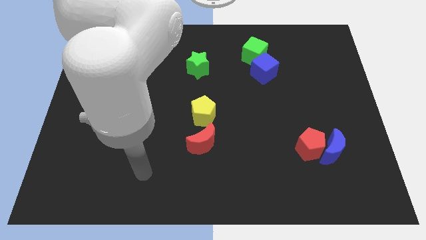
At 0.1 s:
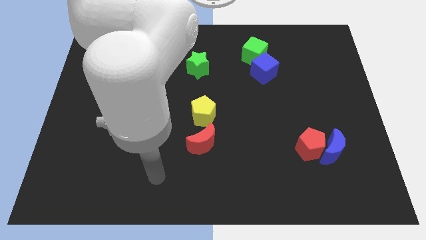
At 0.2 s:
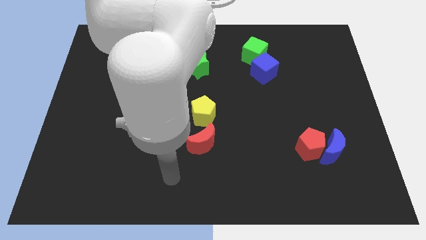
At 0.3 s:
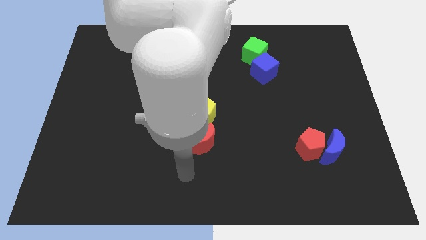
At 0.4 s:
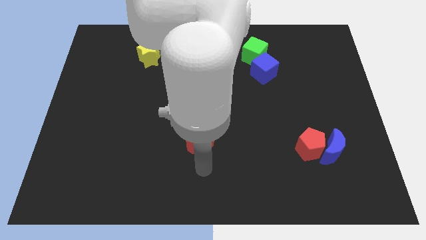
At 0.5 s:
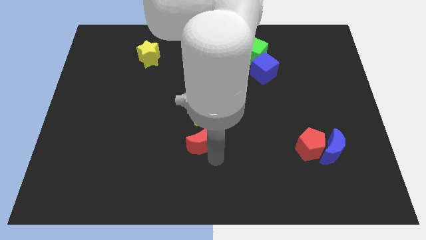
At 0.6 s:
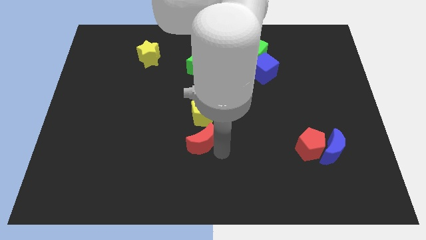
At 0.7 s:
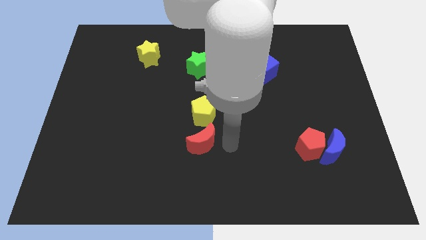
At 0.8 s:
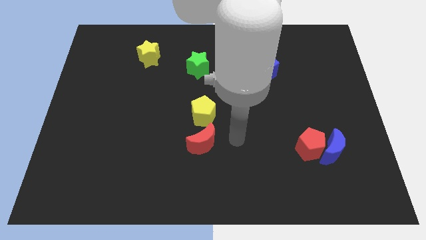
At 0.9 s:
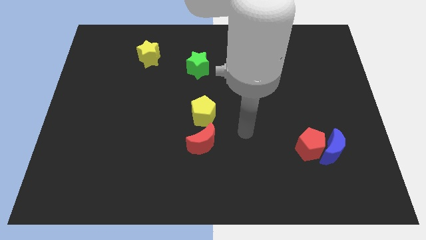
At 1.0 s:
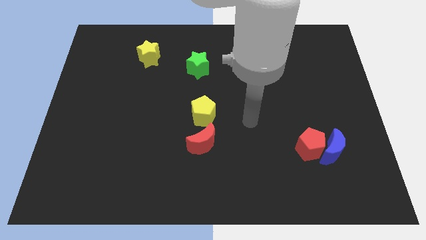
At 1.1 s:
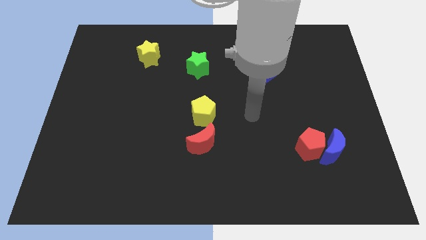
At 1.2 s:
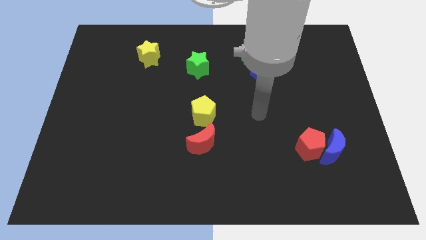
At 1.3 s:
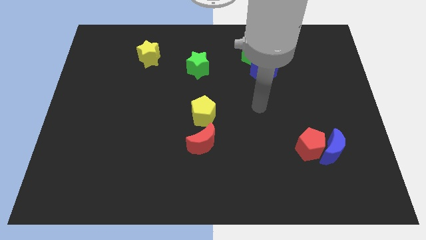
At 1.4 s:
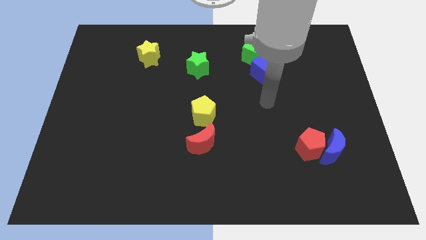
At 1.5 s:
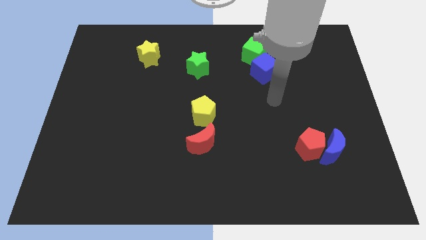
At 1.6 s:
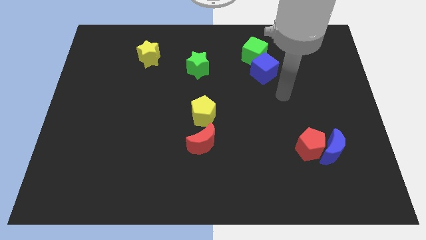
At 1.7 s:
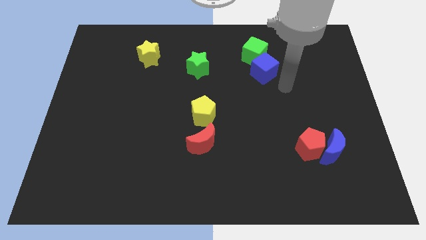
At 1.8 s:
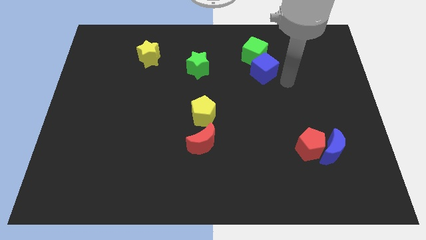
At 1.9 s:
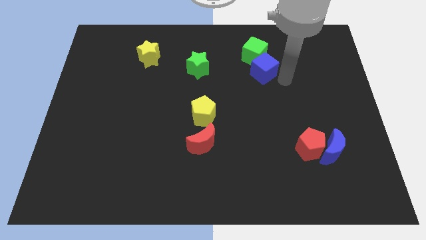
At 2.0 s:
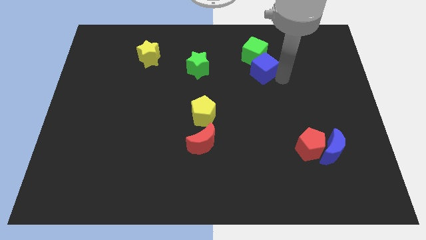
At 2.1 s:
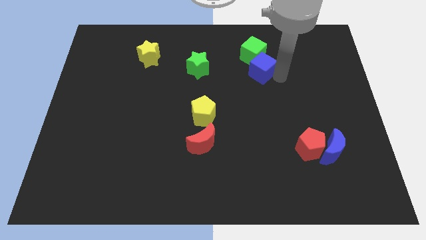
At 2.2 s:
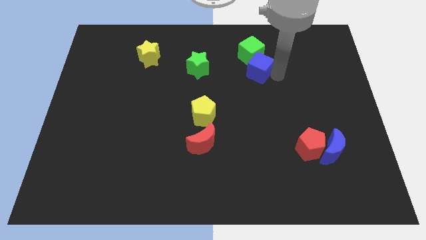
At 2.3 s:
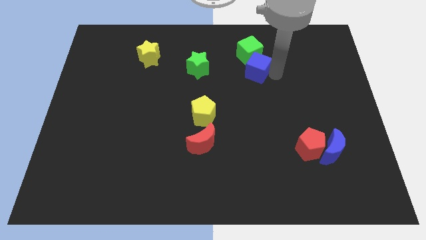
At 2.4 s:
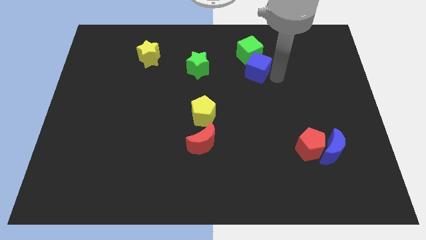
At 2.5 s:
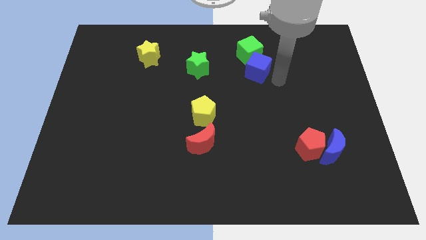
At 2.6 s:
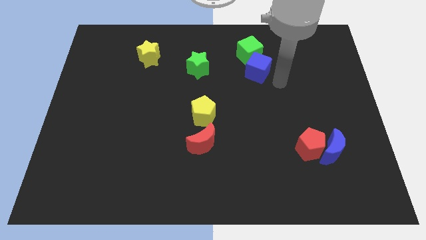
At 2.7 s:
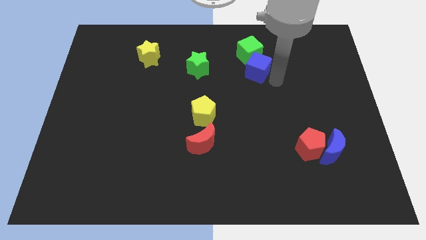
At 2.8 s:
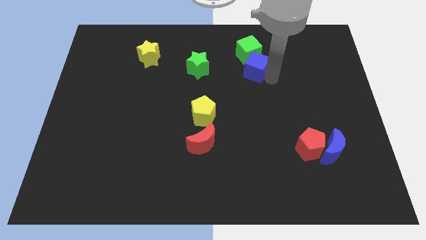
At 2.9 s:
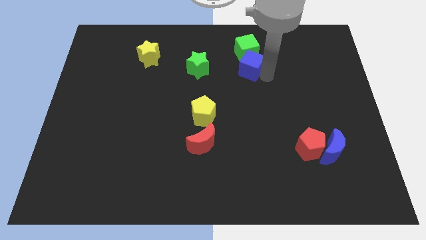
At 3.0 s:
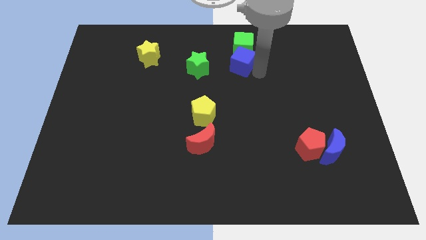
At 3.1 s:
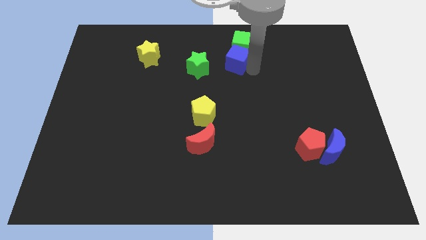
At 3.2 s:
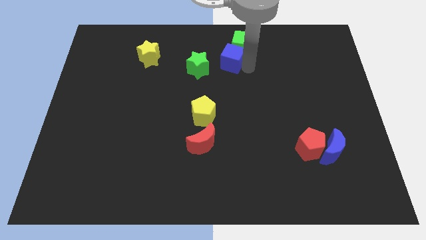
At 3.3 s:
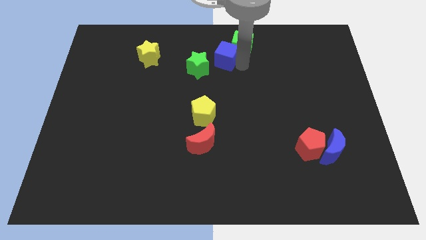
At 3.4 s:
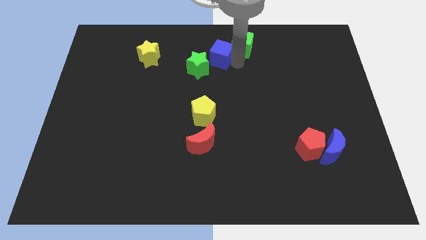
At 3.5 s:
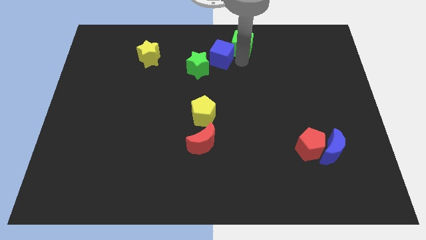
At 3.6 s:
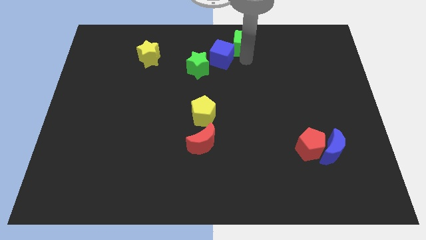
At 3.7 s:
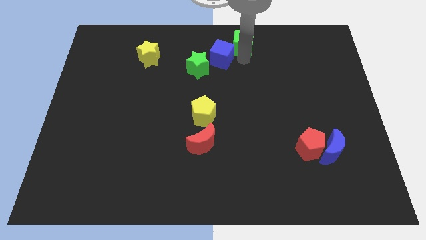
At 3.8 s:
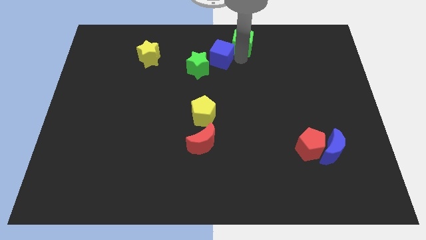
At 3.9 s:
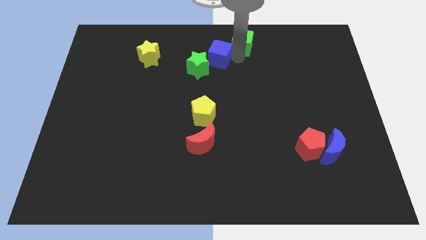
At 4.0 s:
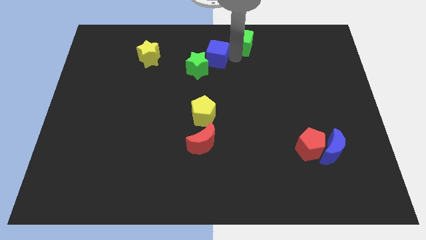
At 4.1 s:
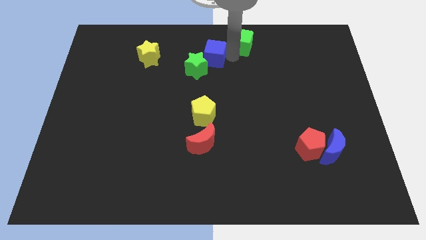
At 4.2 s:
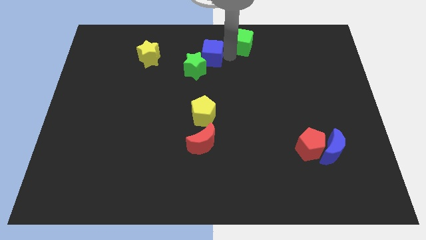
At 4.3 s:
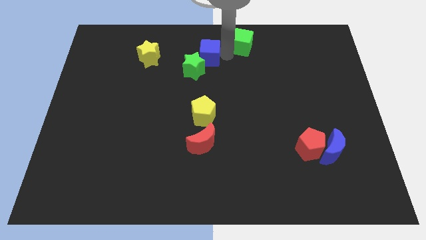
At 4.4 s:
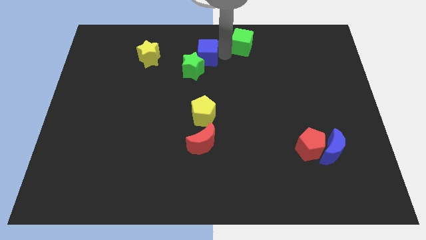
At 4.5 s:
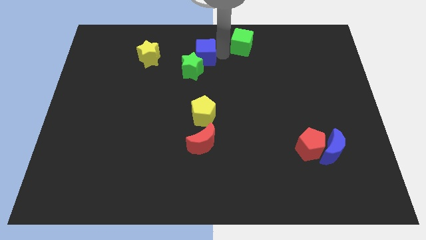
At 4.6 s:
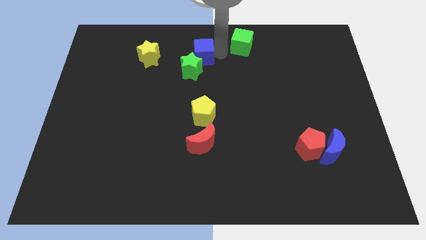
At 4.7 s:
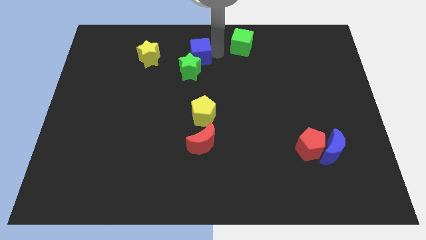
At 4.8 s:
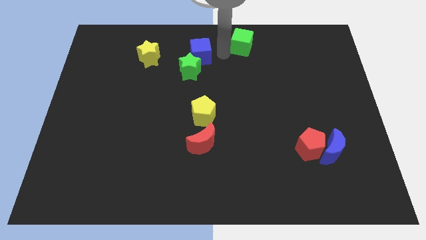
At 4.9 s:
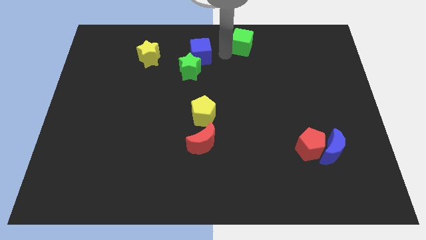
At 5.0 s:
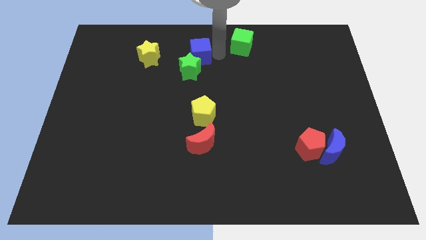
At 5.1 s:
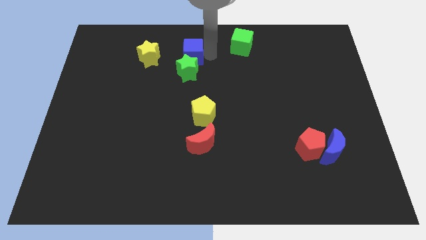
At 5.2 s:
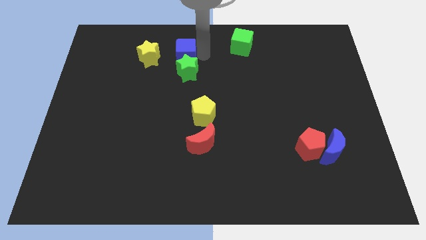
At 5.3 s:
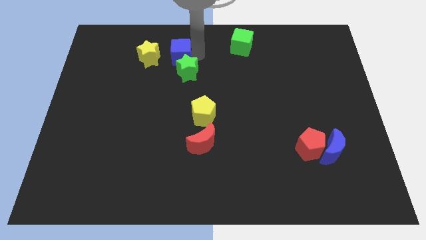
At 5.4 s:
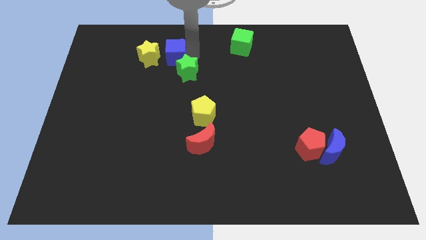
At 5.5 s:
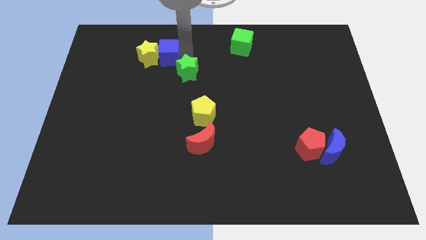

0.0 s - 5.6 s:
push the blue cube next to the yellow star

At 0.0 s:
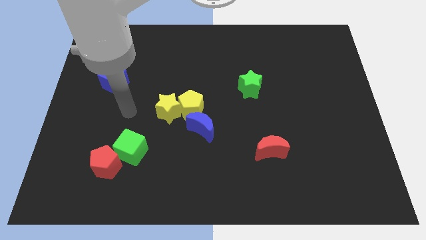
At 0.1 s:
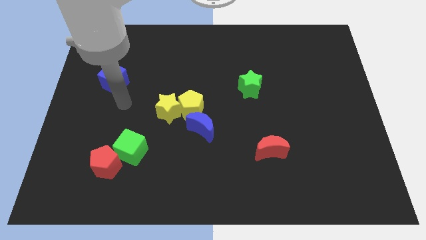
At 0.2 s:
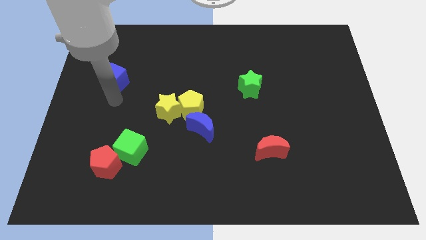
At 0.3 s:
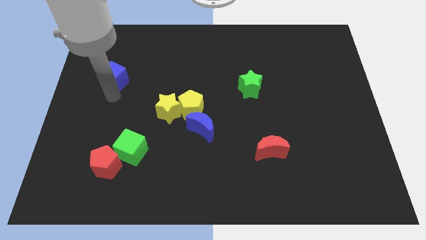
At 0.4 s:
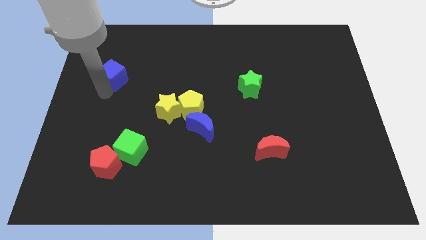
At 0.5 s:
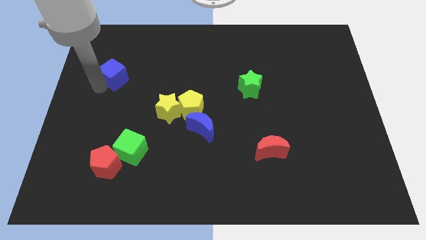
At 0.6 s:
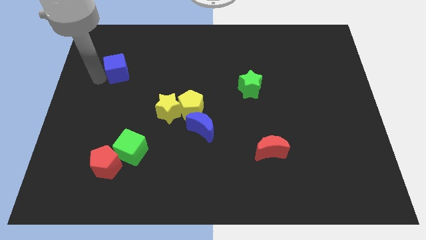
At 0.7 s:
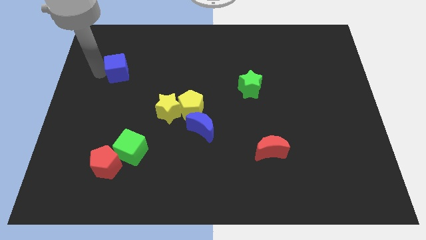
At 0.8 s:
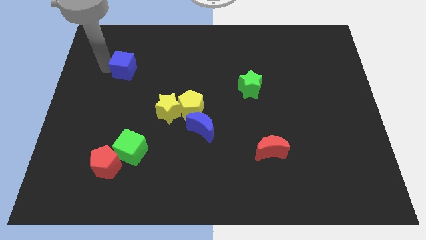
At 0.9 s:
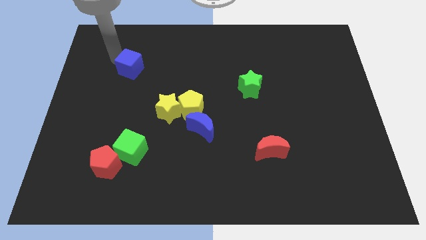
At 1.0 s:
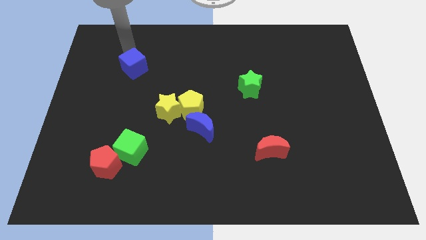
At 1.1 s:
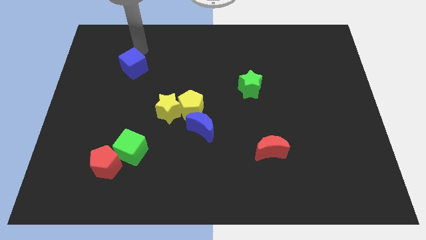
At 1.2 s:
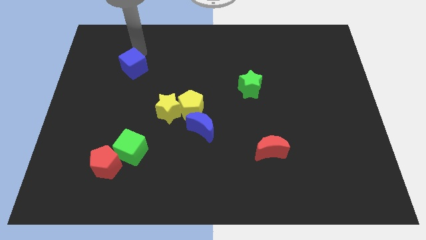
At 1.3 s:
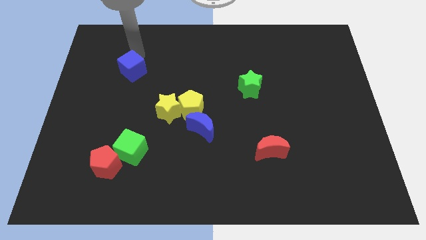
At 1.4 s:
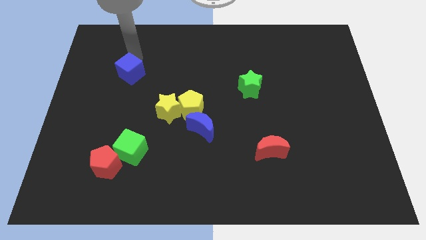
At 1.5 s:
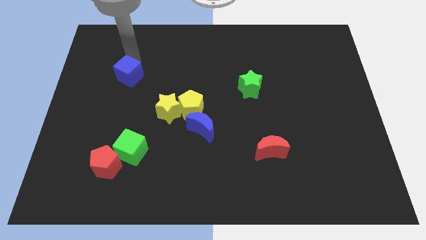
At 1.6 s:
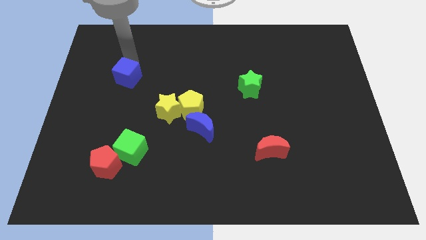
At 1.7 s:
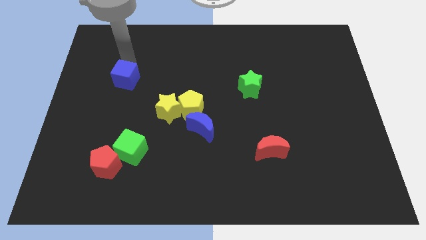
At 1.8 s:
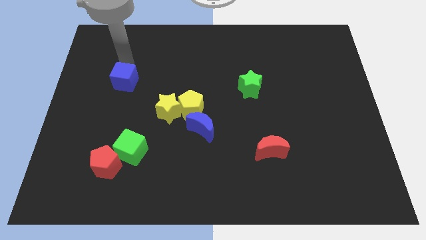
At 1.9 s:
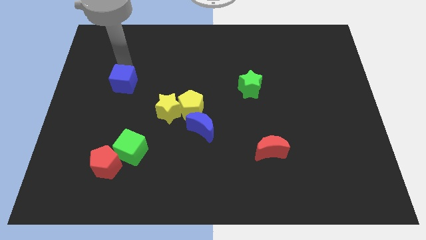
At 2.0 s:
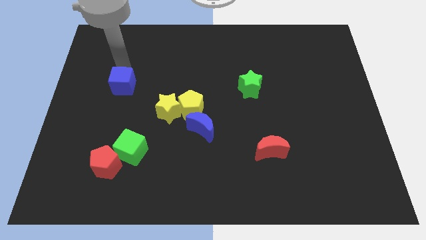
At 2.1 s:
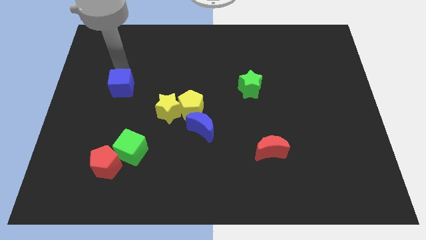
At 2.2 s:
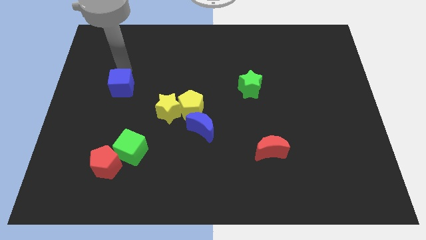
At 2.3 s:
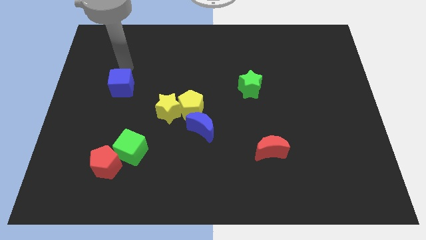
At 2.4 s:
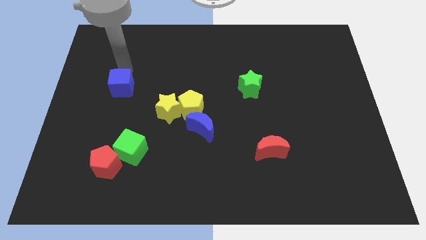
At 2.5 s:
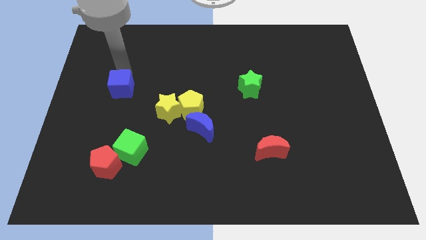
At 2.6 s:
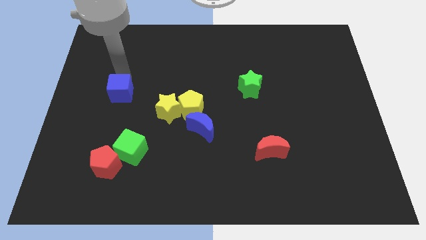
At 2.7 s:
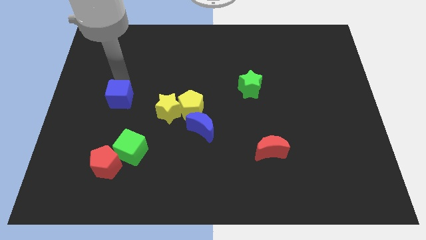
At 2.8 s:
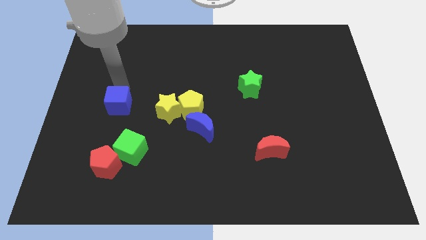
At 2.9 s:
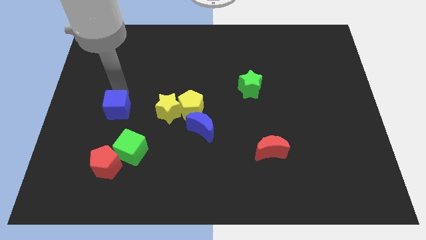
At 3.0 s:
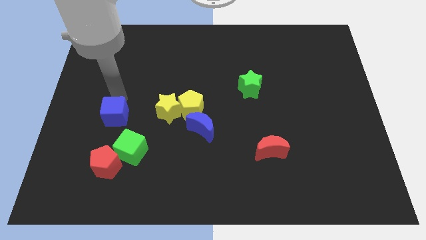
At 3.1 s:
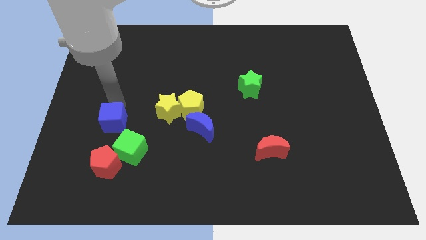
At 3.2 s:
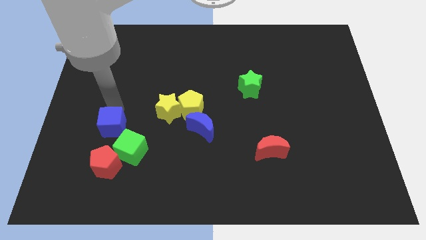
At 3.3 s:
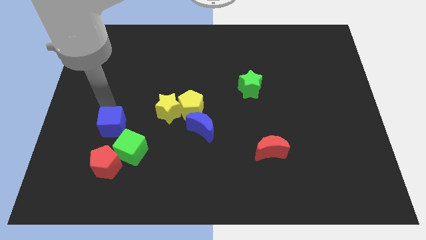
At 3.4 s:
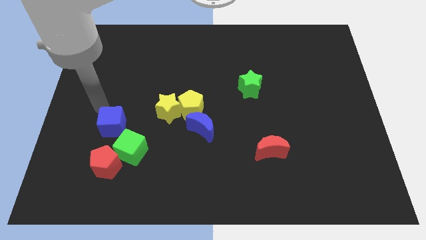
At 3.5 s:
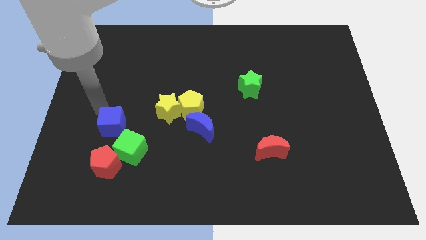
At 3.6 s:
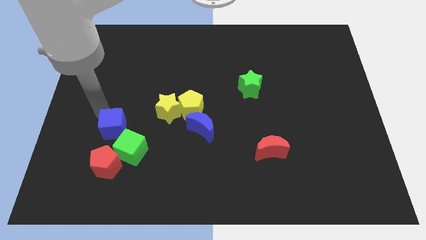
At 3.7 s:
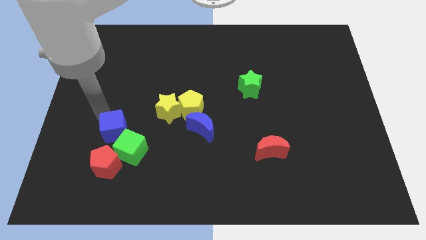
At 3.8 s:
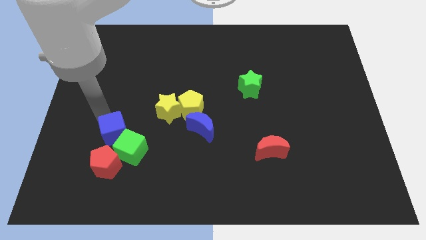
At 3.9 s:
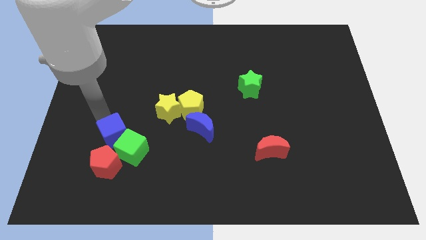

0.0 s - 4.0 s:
slide the blue cube to the green cube
